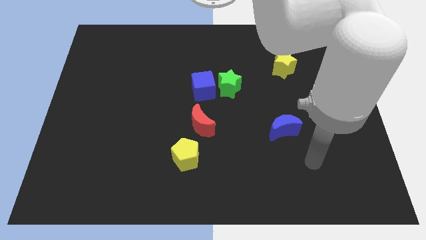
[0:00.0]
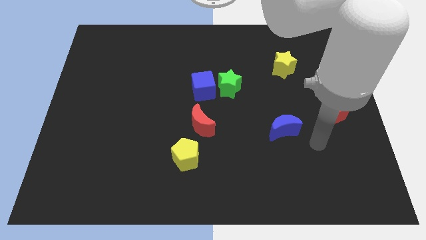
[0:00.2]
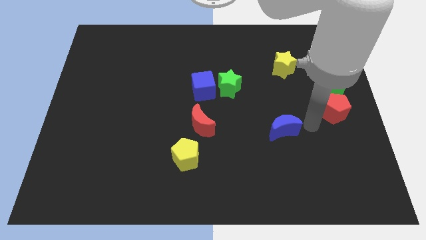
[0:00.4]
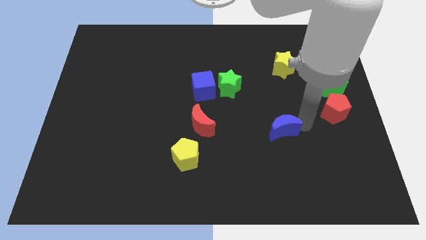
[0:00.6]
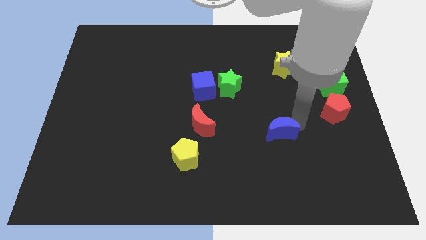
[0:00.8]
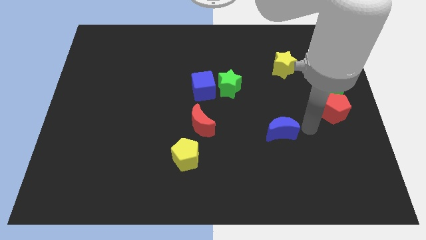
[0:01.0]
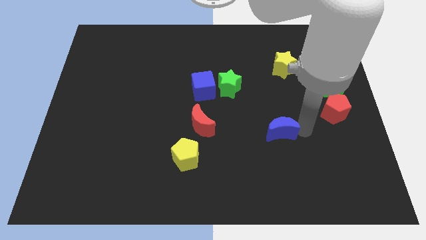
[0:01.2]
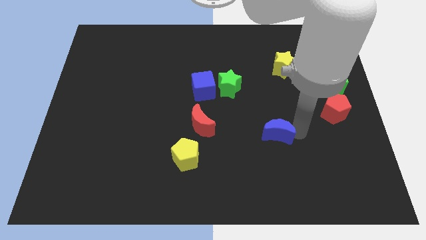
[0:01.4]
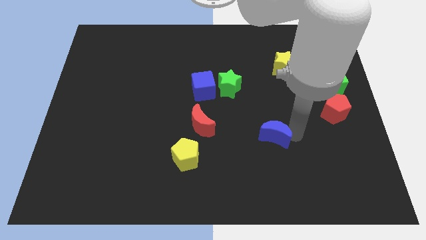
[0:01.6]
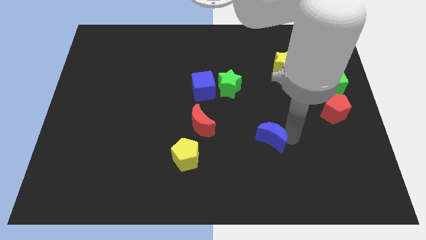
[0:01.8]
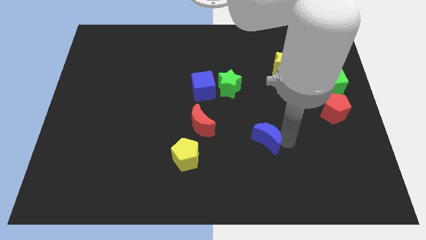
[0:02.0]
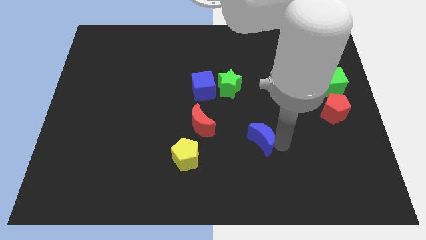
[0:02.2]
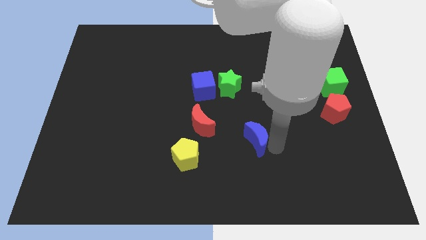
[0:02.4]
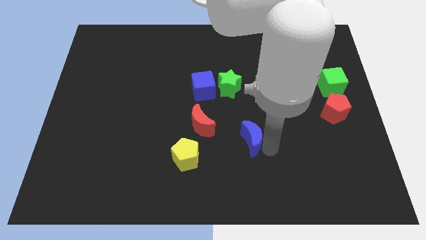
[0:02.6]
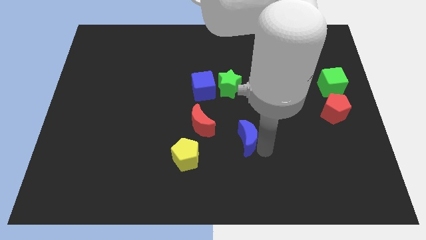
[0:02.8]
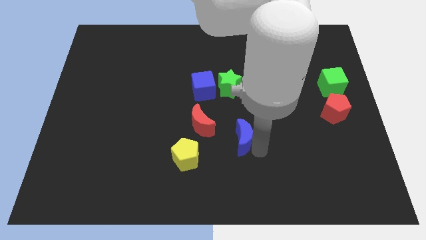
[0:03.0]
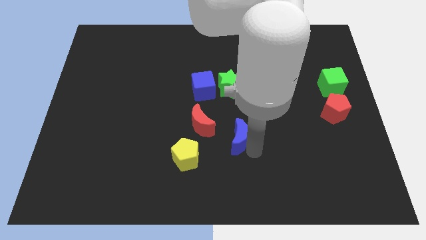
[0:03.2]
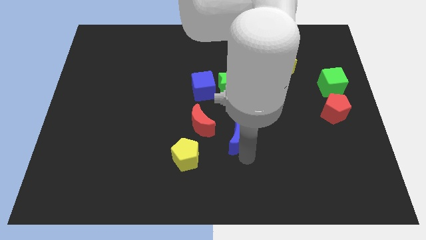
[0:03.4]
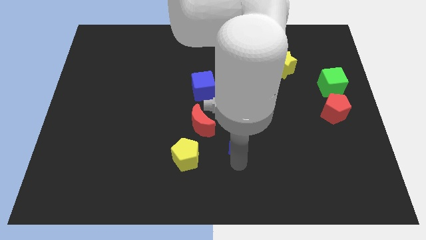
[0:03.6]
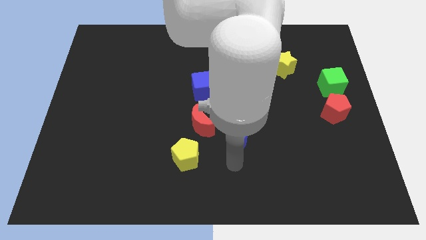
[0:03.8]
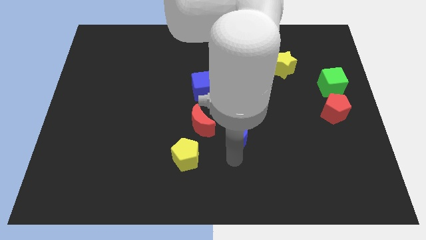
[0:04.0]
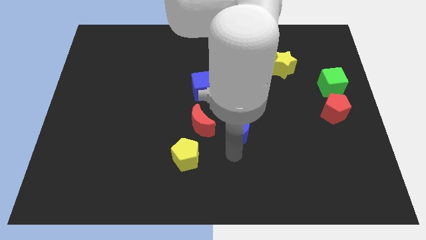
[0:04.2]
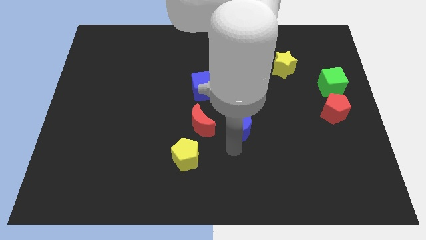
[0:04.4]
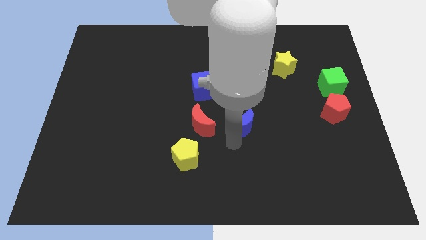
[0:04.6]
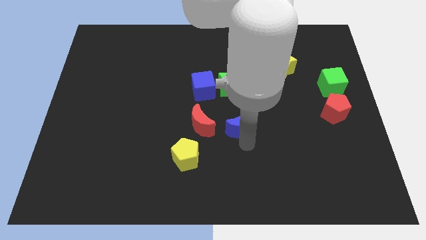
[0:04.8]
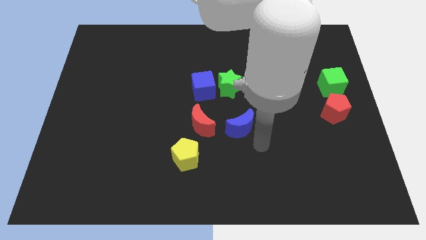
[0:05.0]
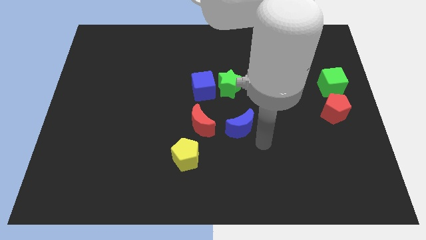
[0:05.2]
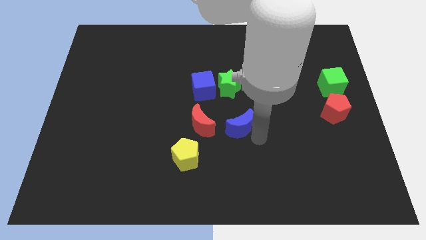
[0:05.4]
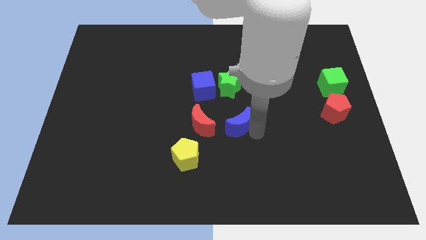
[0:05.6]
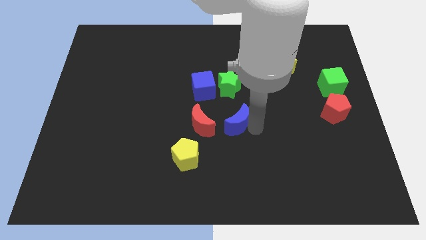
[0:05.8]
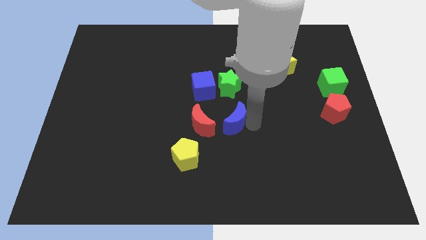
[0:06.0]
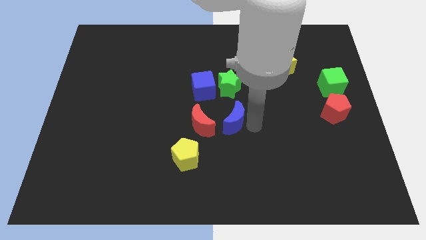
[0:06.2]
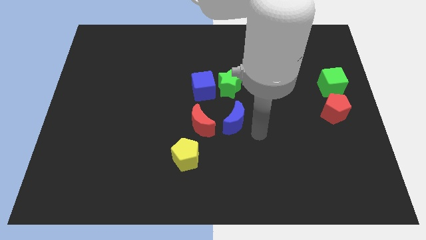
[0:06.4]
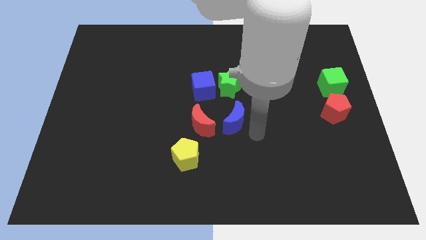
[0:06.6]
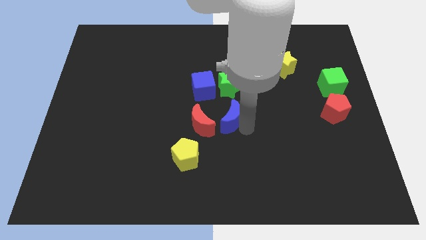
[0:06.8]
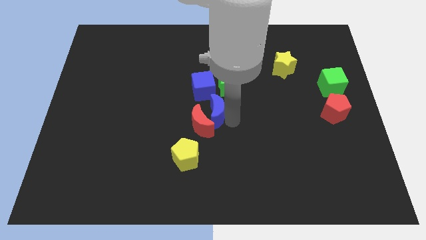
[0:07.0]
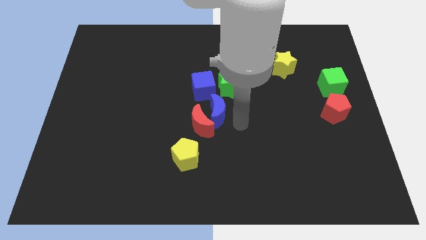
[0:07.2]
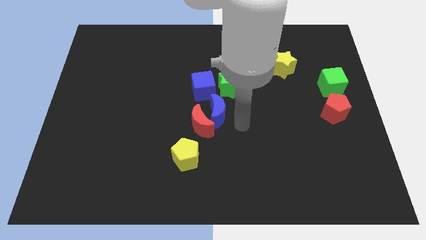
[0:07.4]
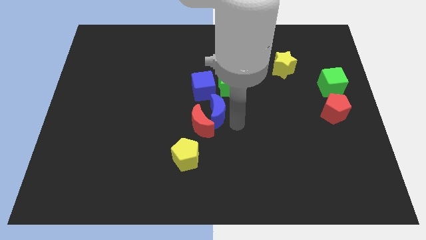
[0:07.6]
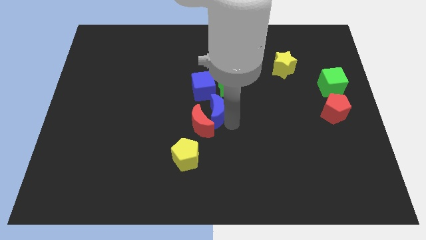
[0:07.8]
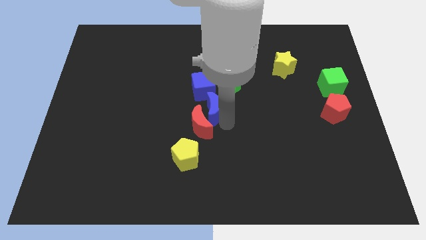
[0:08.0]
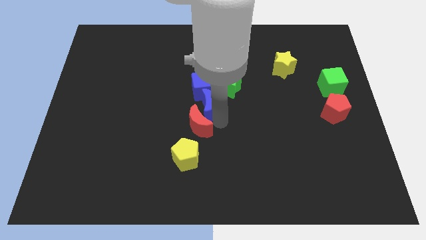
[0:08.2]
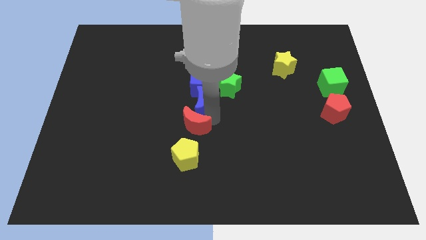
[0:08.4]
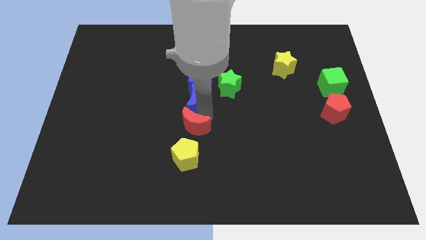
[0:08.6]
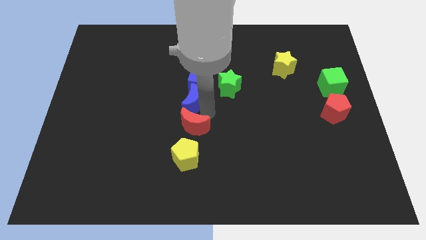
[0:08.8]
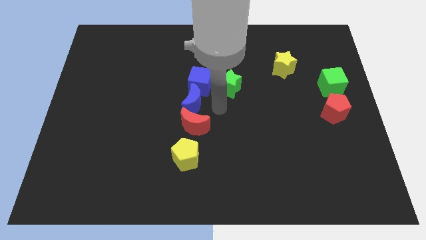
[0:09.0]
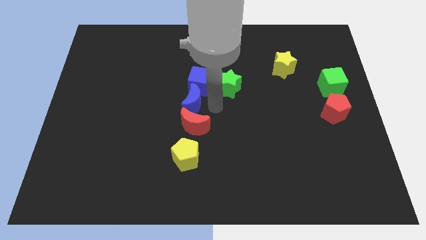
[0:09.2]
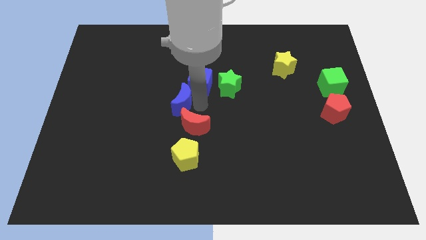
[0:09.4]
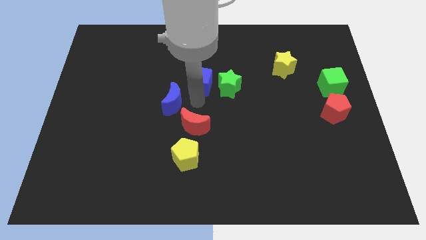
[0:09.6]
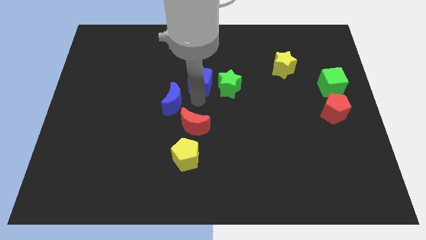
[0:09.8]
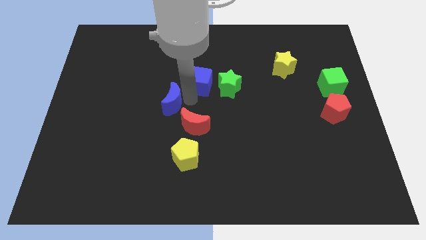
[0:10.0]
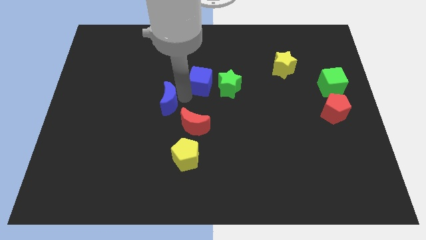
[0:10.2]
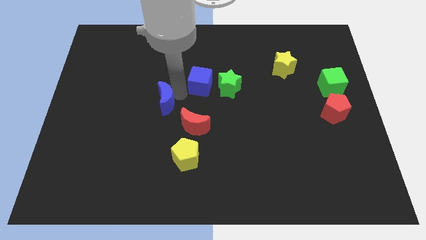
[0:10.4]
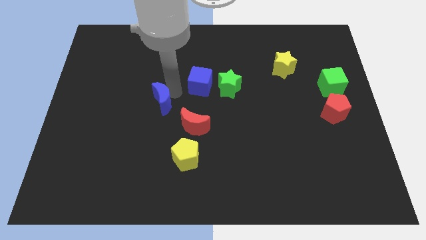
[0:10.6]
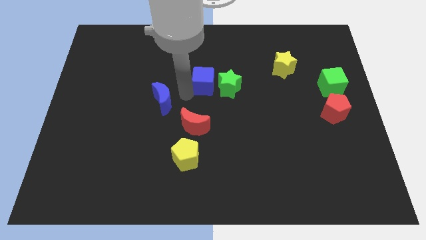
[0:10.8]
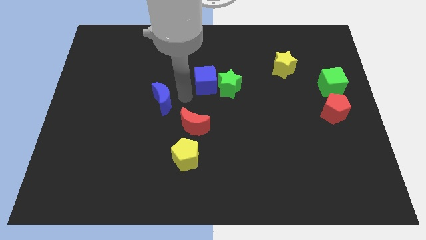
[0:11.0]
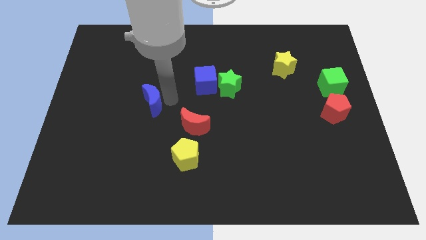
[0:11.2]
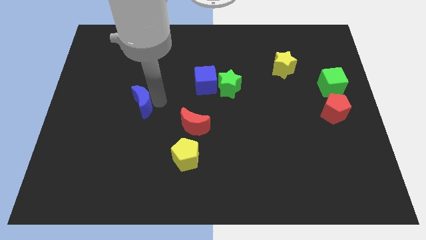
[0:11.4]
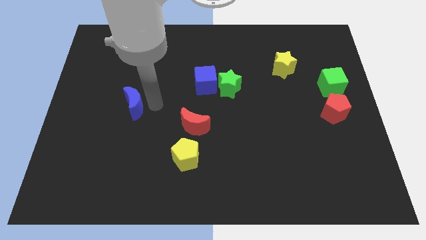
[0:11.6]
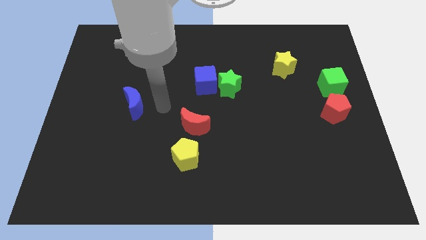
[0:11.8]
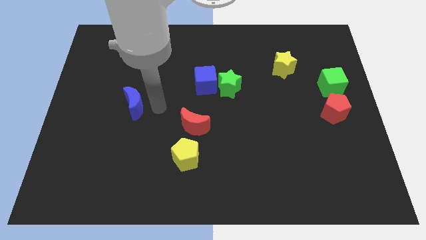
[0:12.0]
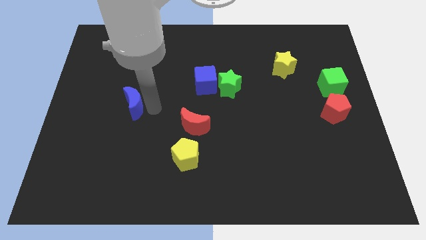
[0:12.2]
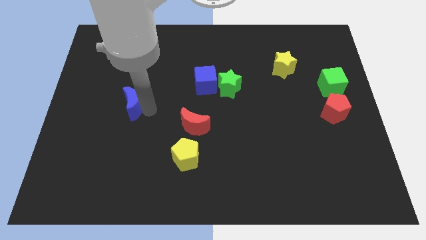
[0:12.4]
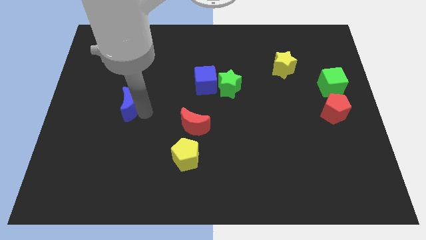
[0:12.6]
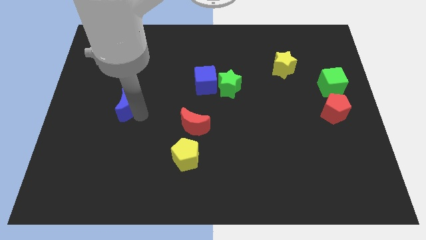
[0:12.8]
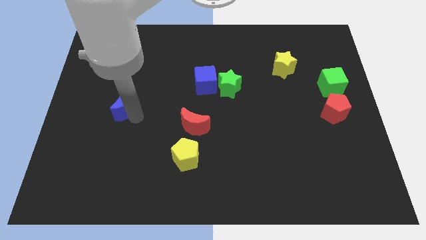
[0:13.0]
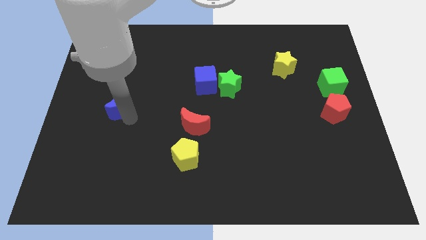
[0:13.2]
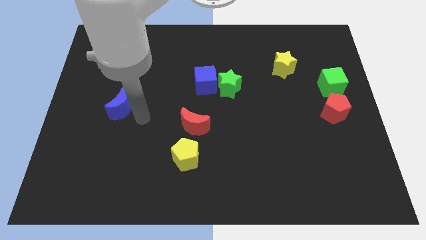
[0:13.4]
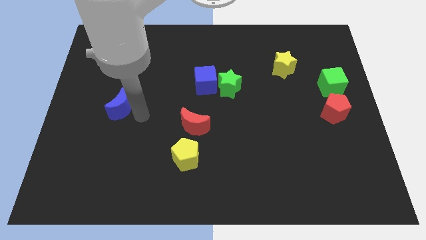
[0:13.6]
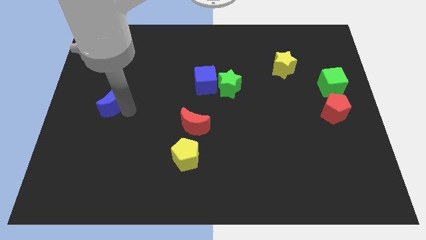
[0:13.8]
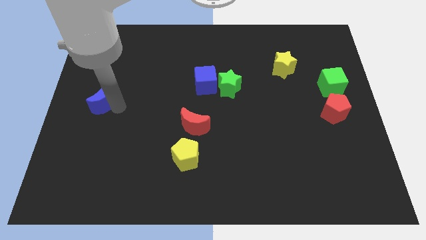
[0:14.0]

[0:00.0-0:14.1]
put the blue moon to the left side
